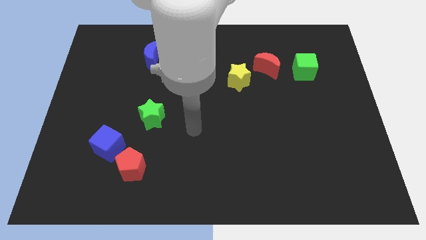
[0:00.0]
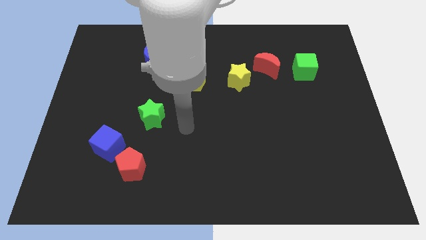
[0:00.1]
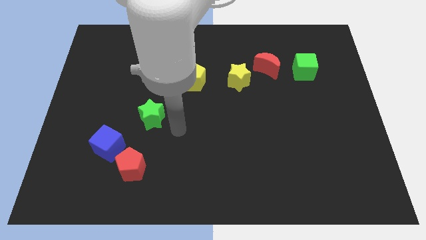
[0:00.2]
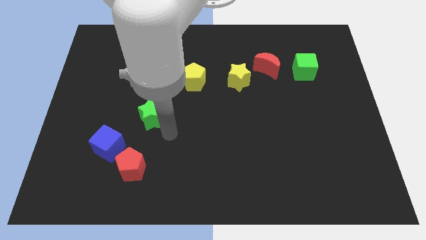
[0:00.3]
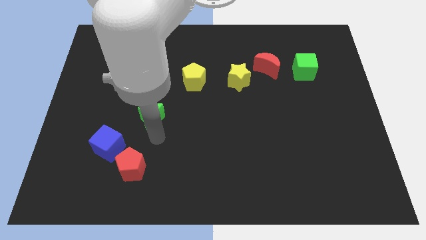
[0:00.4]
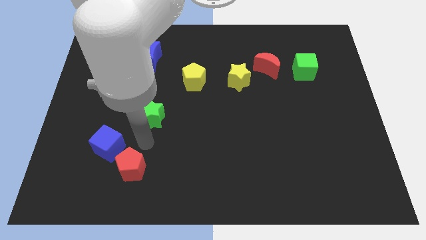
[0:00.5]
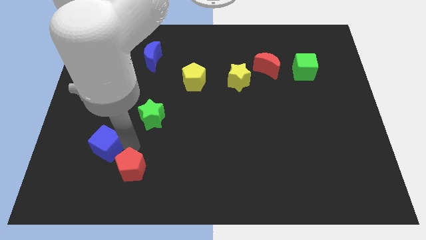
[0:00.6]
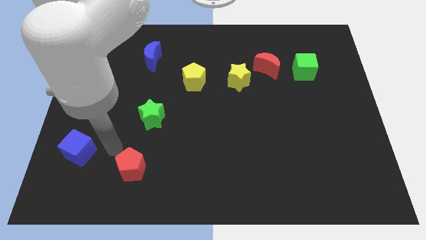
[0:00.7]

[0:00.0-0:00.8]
move the red pentagon away from the blue cube

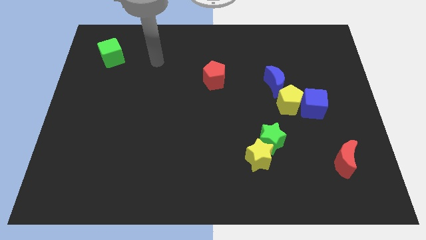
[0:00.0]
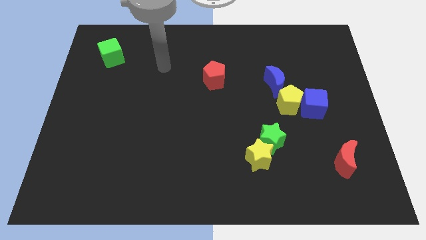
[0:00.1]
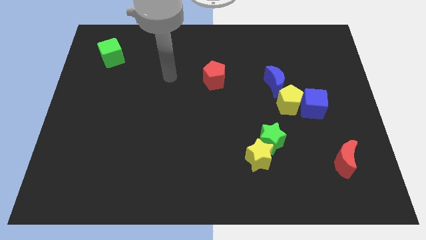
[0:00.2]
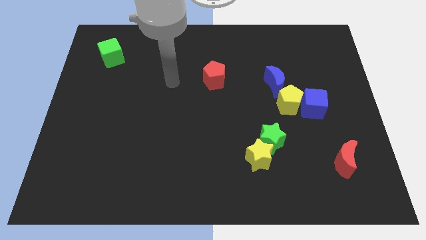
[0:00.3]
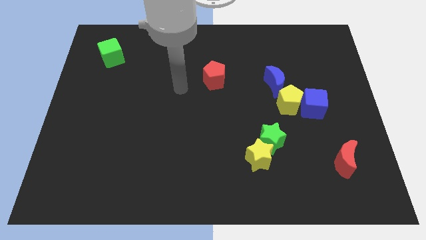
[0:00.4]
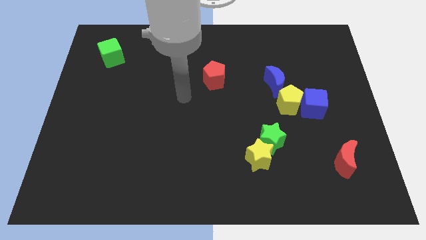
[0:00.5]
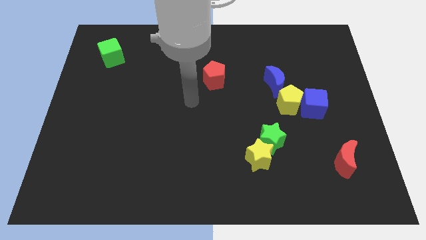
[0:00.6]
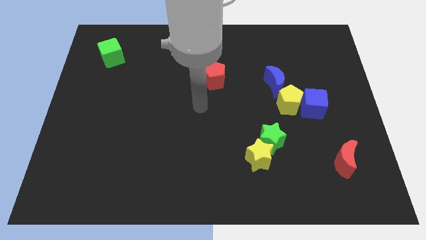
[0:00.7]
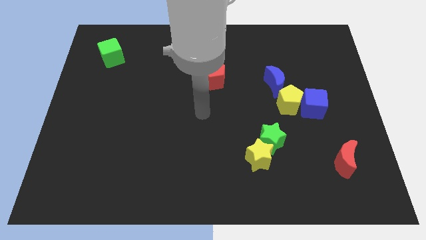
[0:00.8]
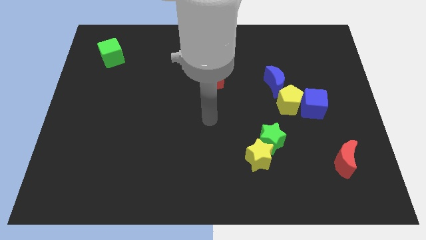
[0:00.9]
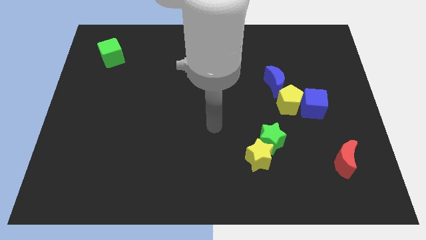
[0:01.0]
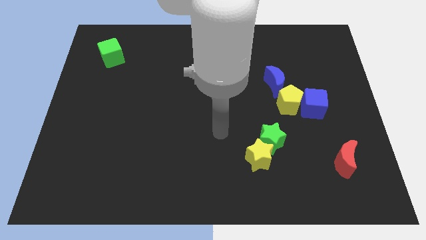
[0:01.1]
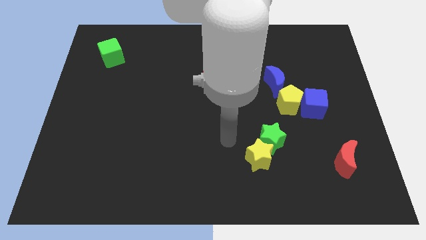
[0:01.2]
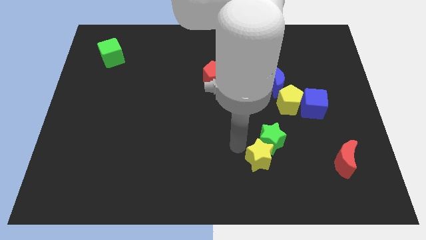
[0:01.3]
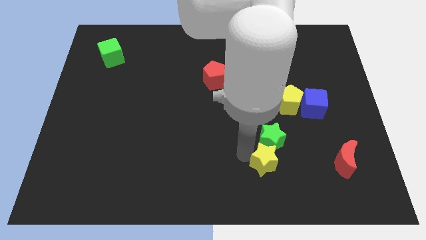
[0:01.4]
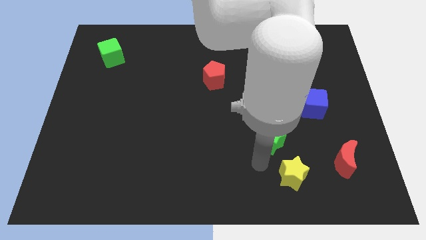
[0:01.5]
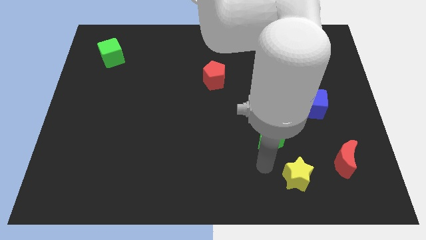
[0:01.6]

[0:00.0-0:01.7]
separate the green star from the yellow star

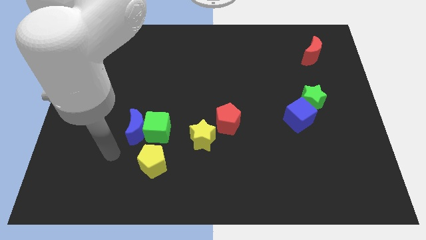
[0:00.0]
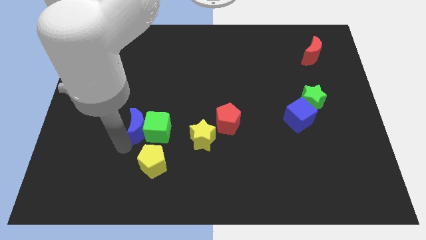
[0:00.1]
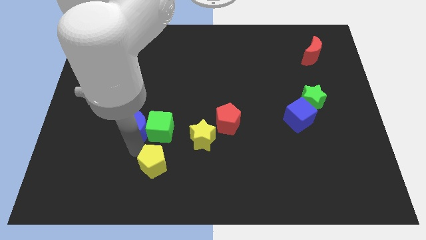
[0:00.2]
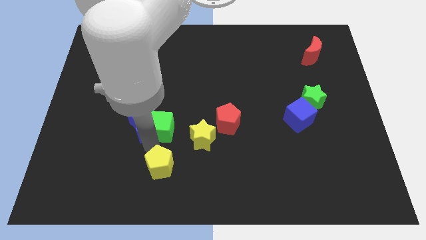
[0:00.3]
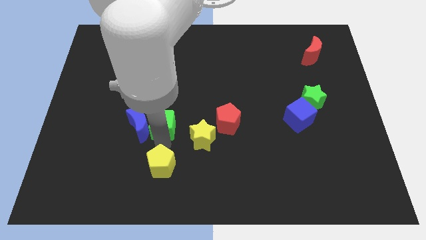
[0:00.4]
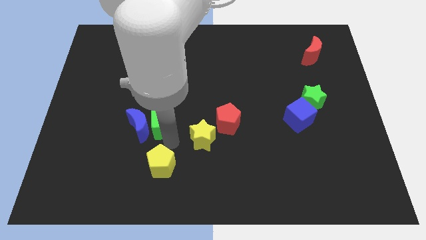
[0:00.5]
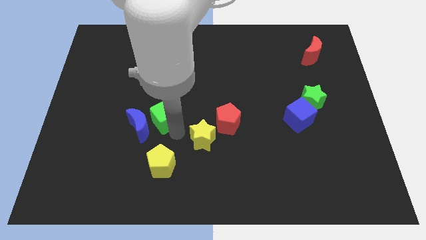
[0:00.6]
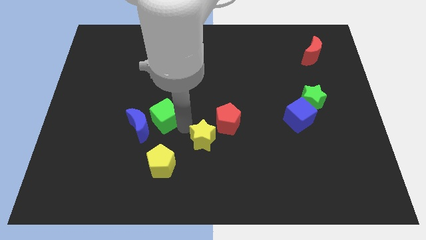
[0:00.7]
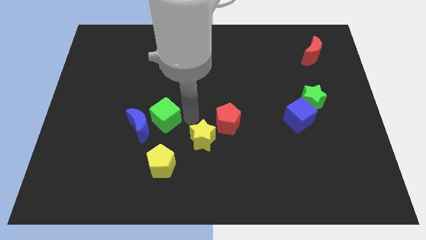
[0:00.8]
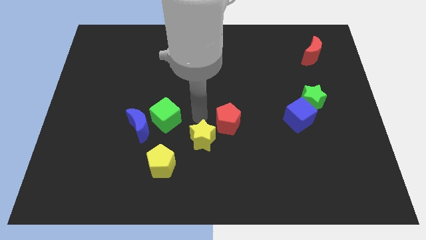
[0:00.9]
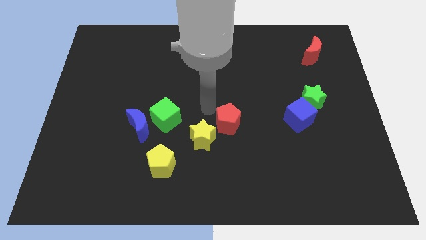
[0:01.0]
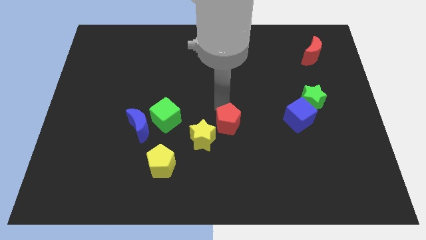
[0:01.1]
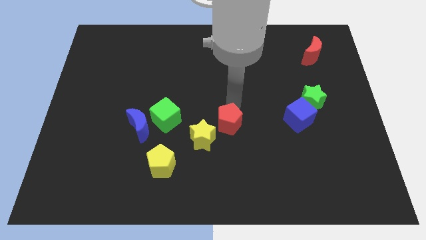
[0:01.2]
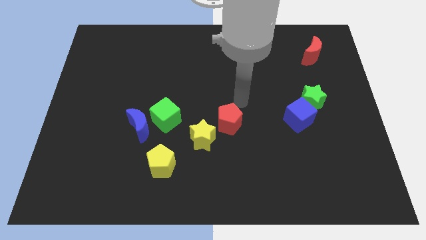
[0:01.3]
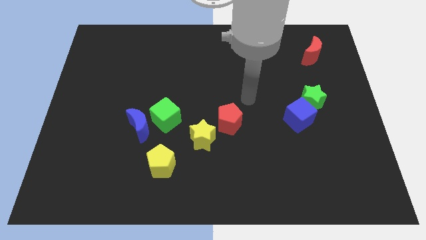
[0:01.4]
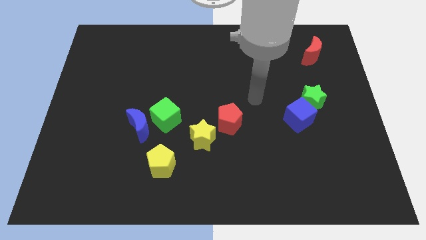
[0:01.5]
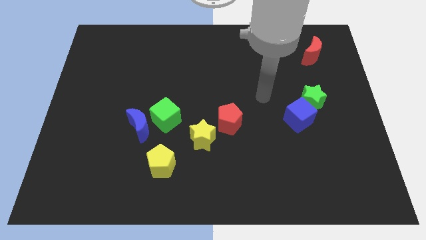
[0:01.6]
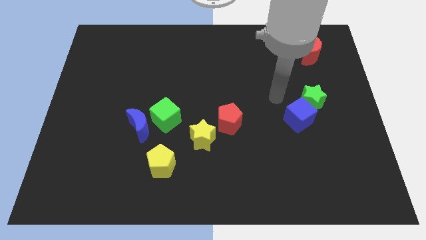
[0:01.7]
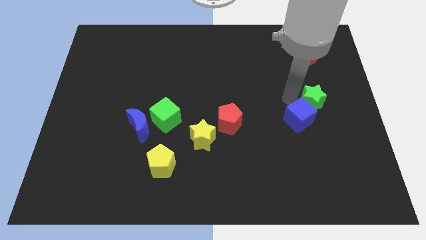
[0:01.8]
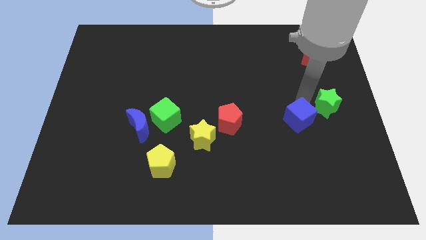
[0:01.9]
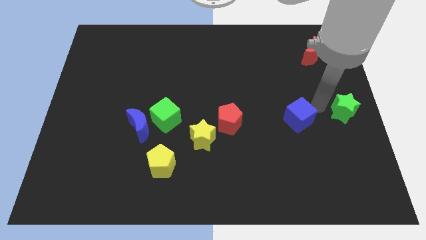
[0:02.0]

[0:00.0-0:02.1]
separate the blue cube from the green star

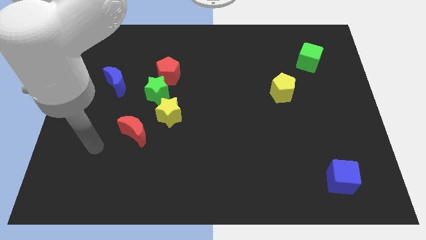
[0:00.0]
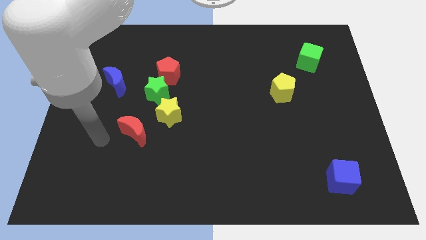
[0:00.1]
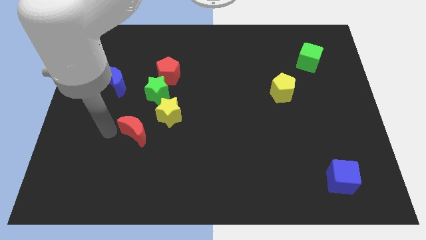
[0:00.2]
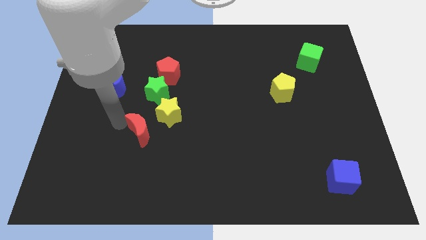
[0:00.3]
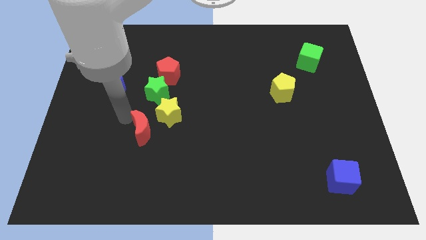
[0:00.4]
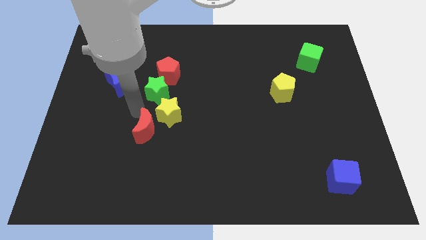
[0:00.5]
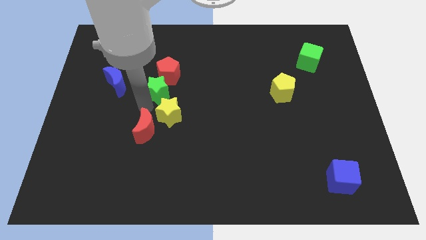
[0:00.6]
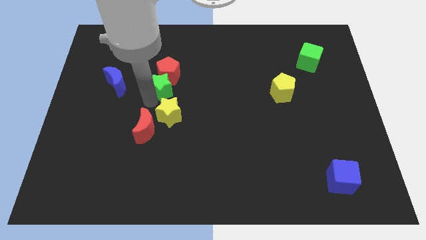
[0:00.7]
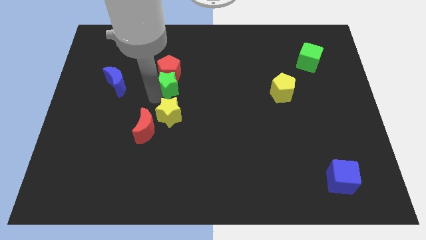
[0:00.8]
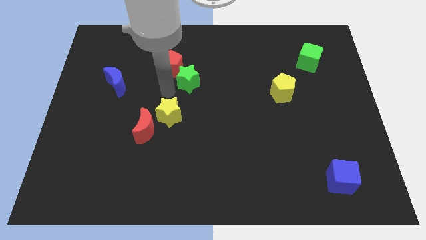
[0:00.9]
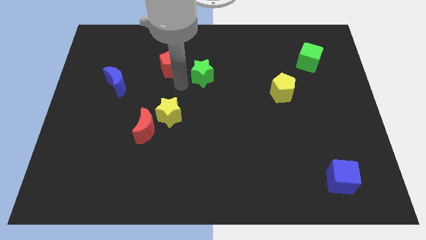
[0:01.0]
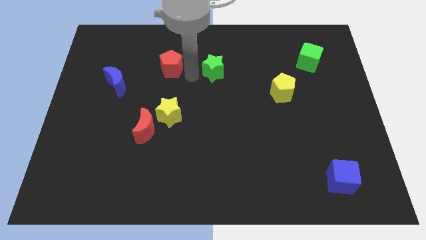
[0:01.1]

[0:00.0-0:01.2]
pull the red pentagon apart from the green star

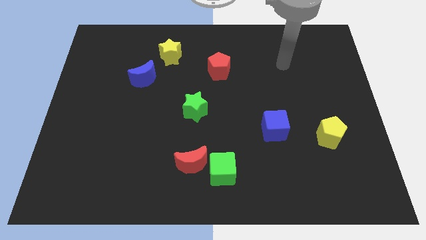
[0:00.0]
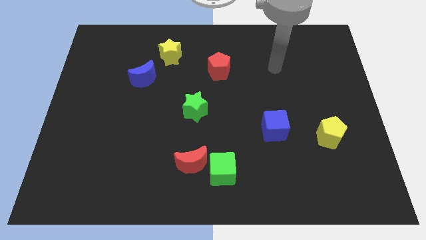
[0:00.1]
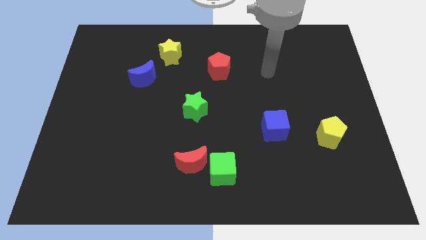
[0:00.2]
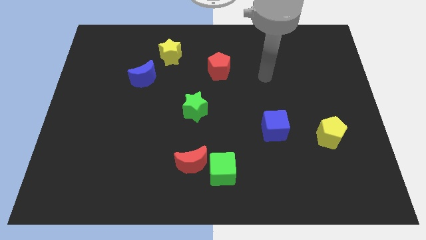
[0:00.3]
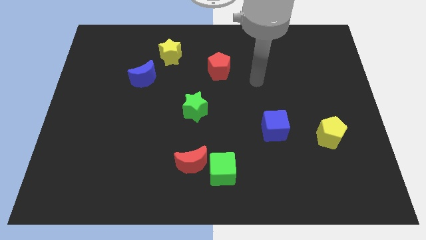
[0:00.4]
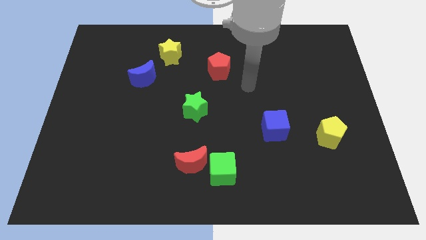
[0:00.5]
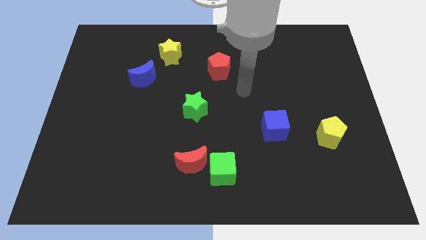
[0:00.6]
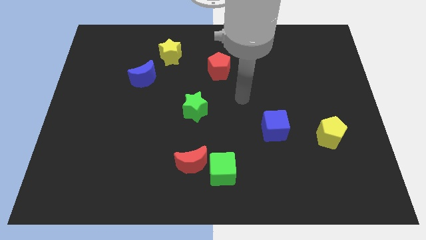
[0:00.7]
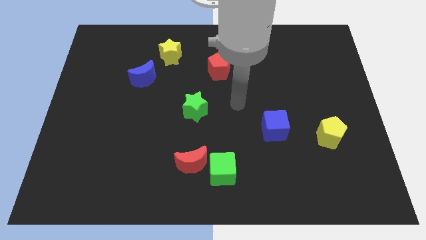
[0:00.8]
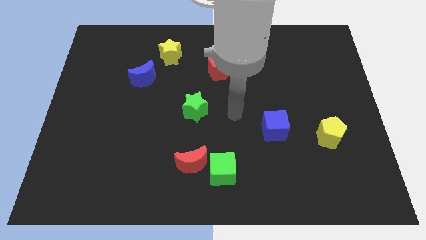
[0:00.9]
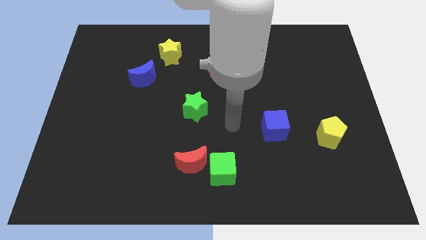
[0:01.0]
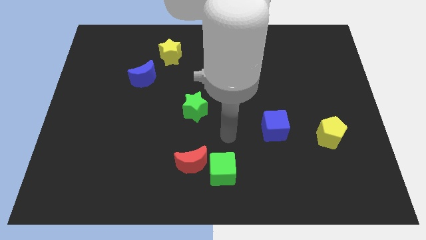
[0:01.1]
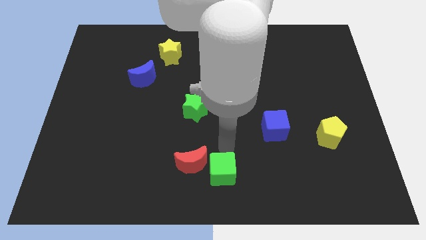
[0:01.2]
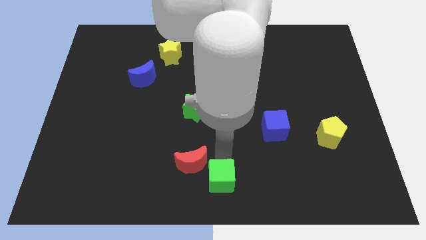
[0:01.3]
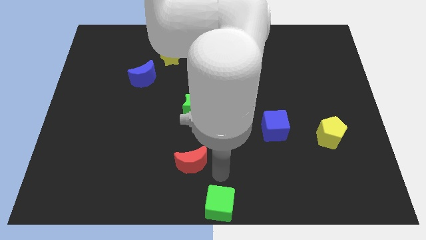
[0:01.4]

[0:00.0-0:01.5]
separate the red moon from the green cube

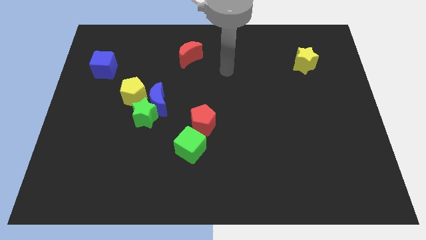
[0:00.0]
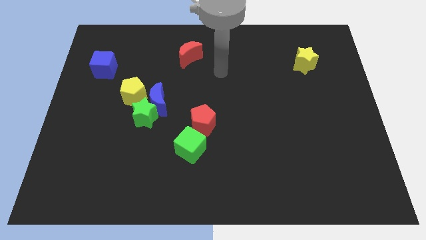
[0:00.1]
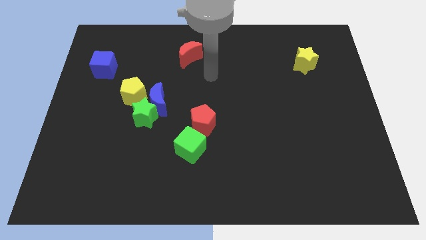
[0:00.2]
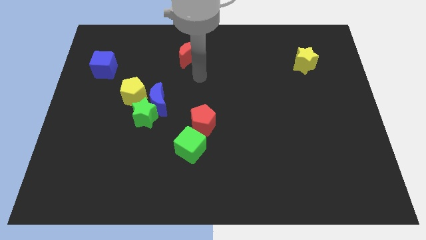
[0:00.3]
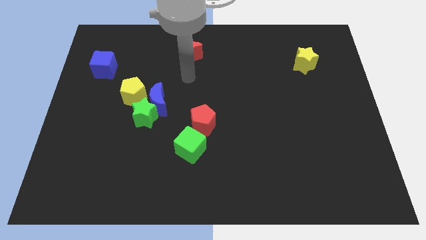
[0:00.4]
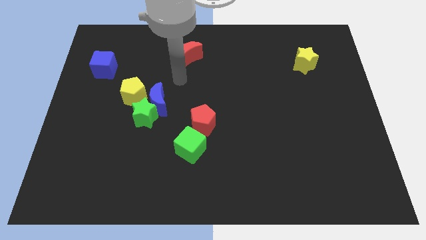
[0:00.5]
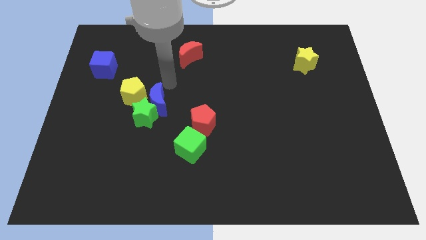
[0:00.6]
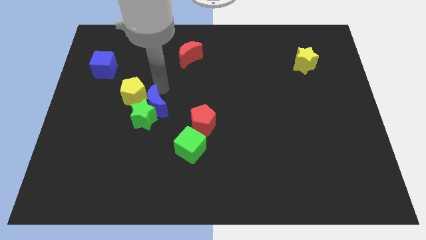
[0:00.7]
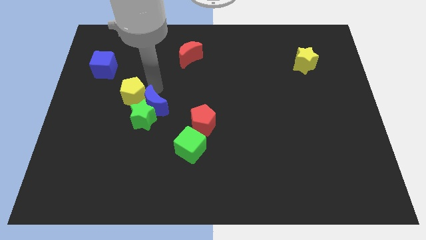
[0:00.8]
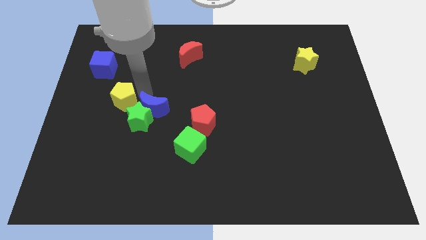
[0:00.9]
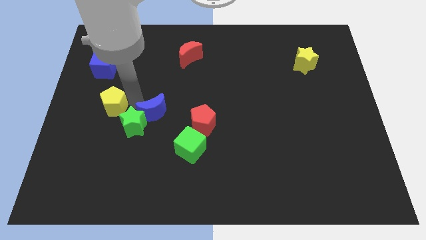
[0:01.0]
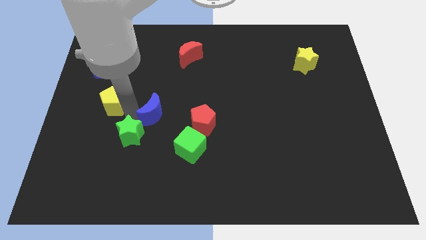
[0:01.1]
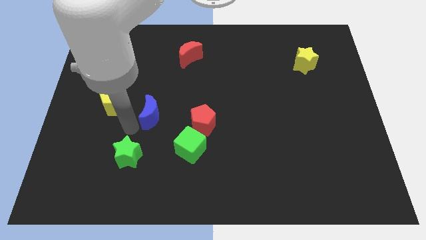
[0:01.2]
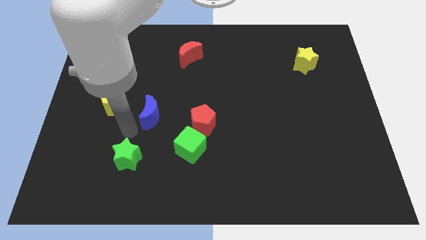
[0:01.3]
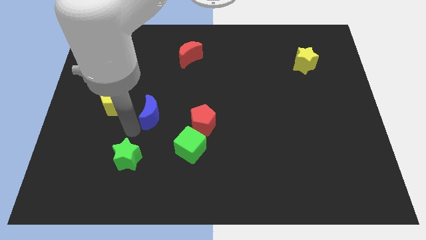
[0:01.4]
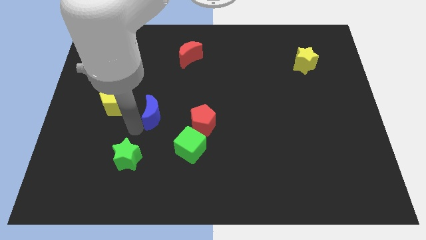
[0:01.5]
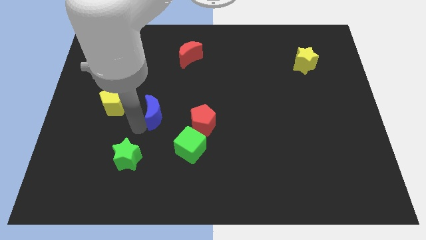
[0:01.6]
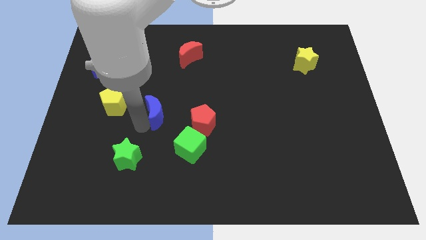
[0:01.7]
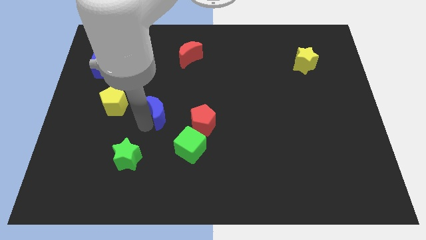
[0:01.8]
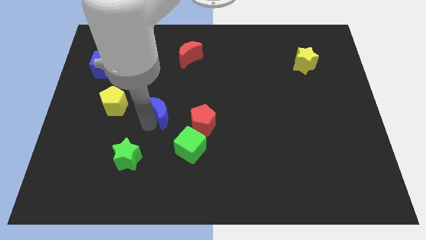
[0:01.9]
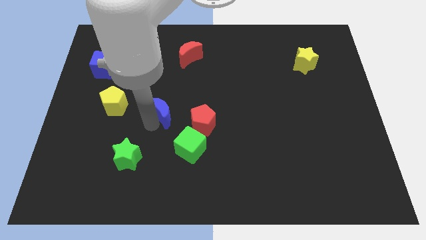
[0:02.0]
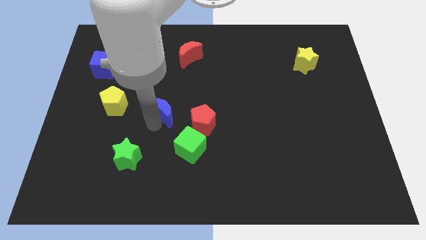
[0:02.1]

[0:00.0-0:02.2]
separate the blue moon from the green star and yellow pentagon
